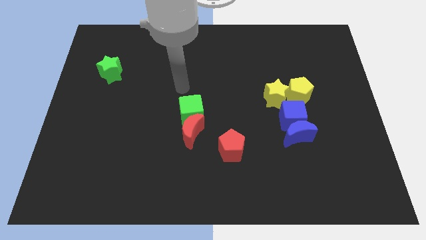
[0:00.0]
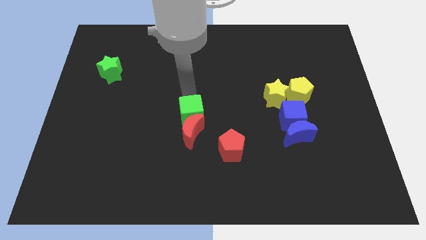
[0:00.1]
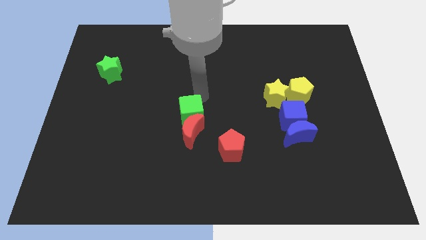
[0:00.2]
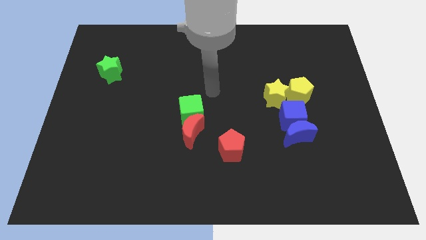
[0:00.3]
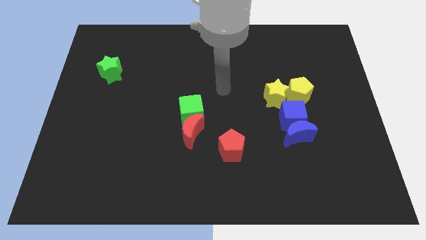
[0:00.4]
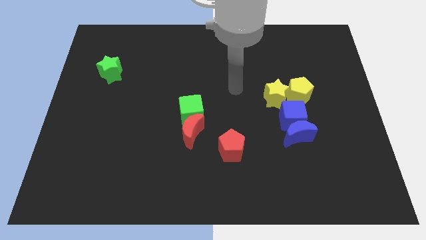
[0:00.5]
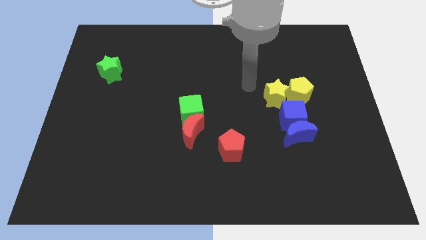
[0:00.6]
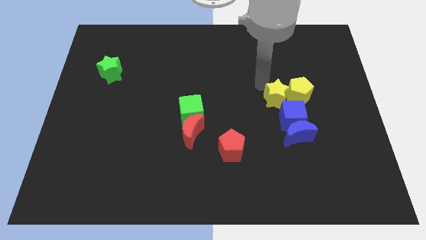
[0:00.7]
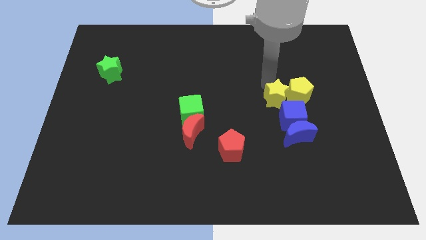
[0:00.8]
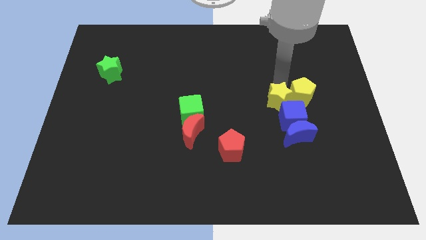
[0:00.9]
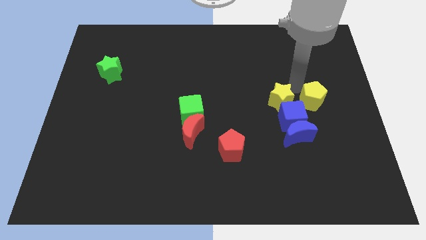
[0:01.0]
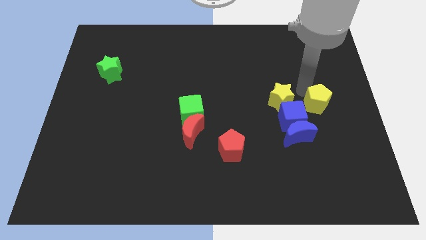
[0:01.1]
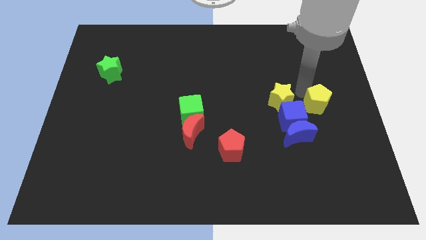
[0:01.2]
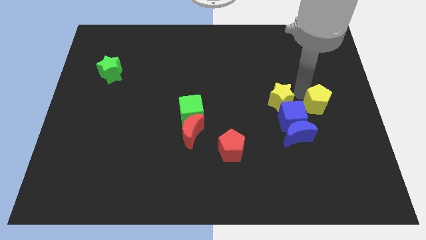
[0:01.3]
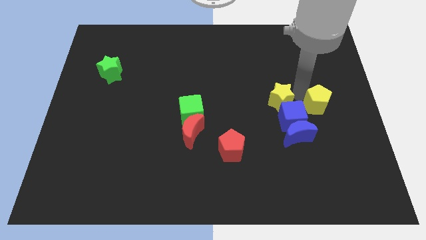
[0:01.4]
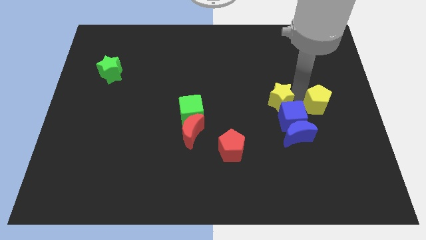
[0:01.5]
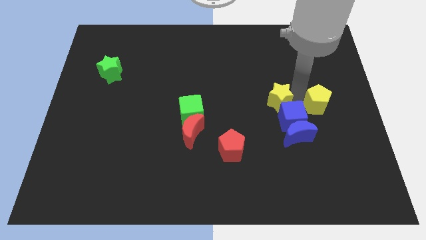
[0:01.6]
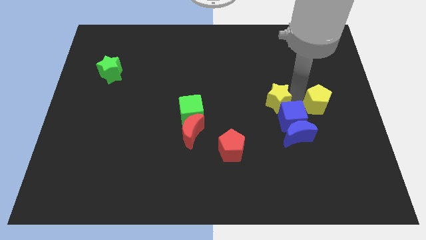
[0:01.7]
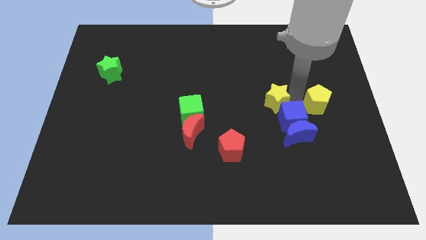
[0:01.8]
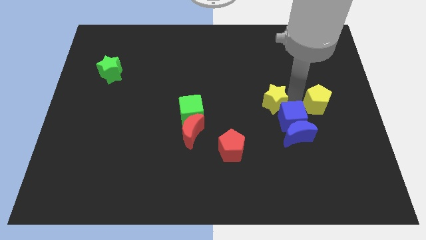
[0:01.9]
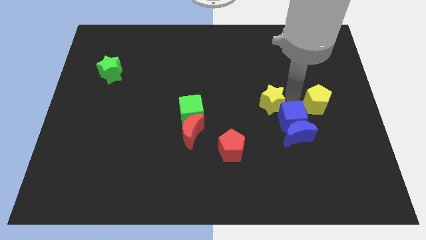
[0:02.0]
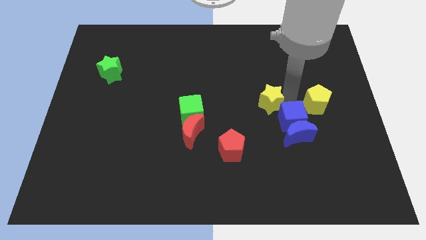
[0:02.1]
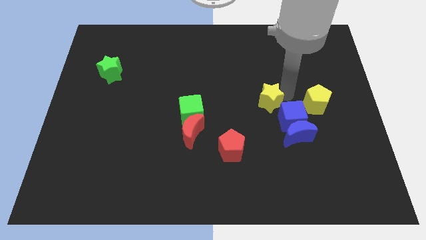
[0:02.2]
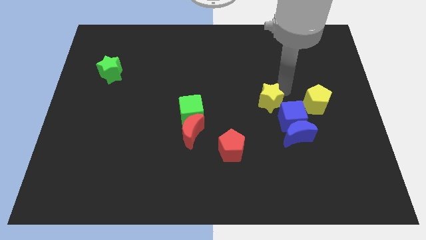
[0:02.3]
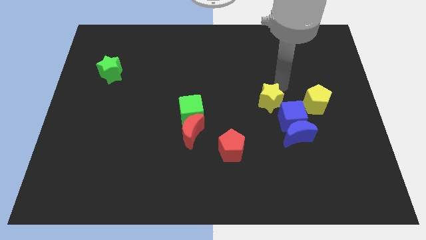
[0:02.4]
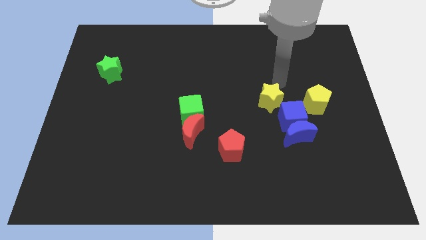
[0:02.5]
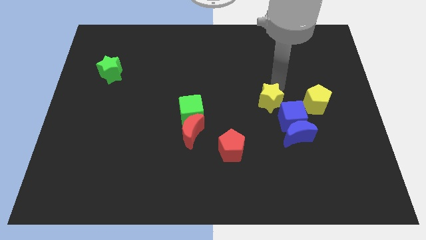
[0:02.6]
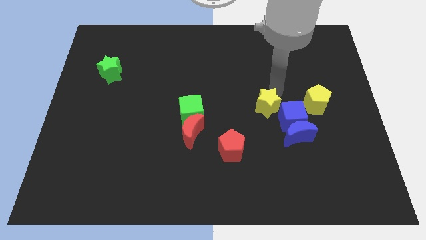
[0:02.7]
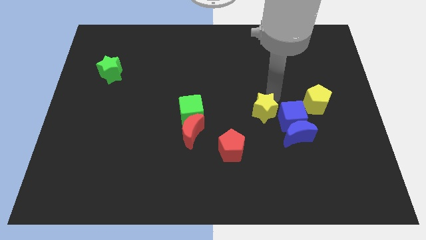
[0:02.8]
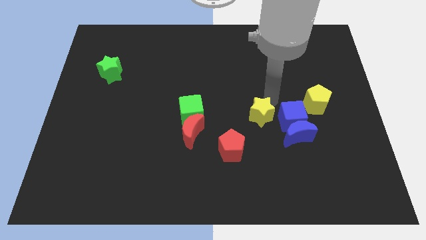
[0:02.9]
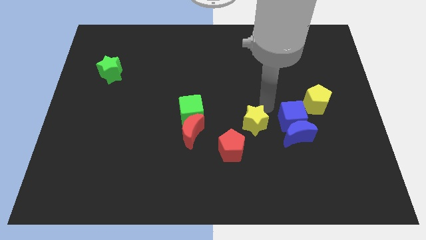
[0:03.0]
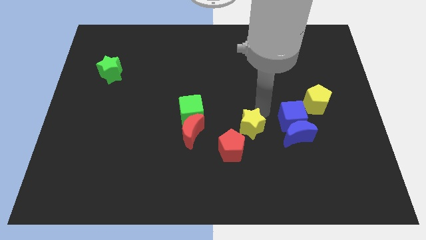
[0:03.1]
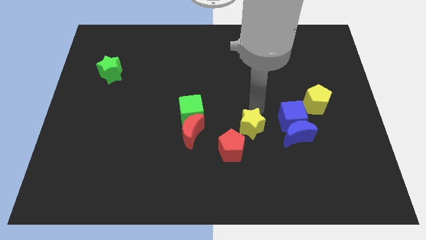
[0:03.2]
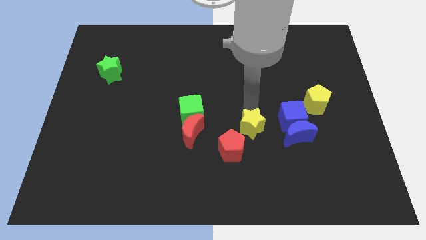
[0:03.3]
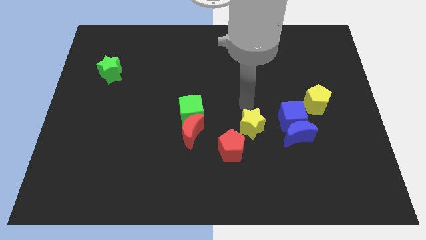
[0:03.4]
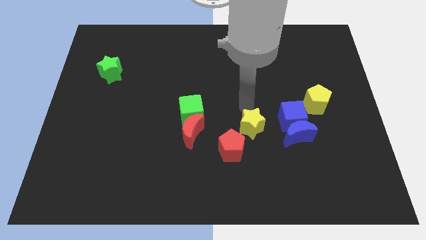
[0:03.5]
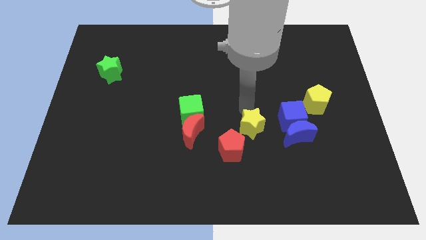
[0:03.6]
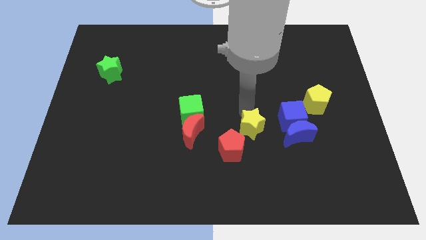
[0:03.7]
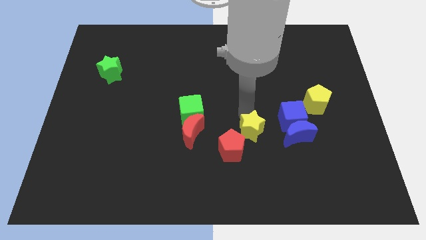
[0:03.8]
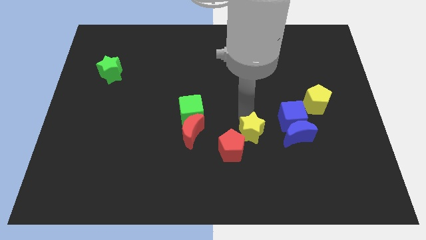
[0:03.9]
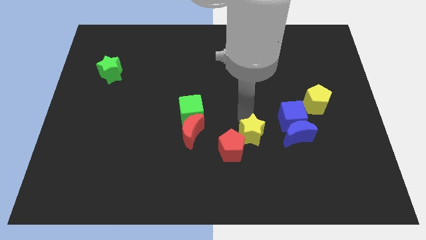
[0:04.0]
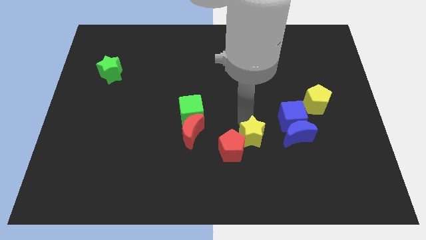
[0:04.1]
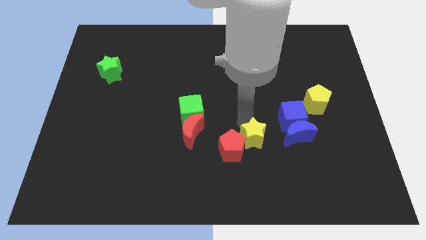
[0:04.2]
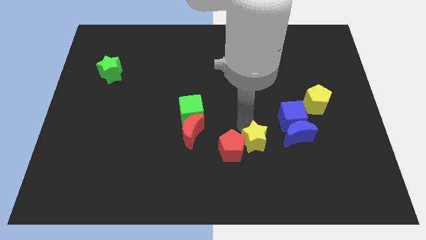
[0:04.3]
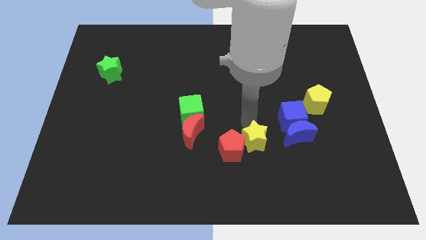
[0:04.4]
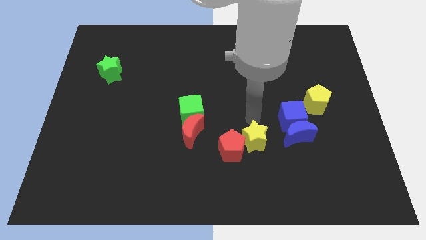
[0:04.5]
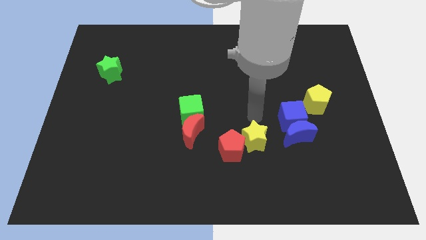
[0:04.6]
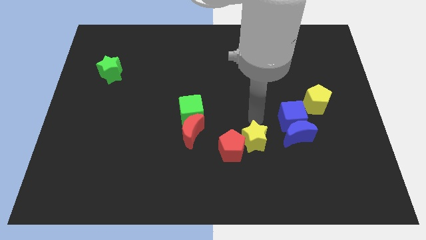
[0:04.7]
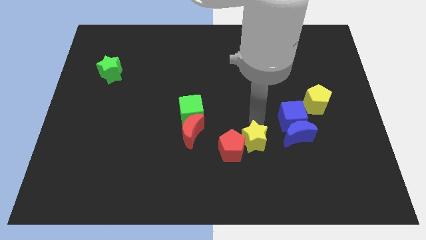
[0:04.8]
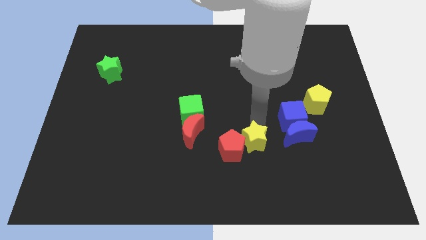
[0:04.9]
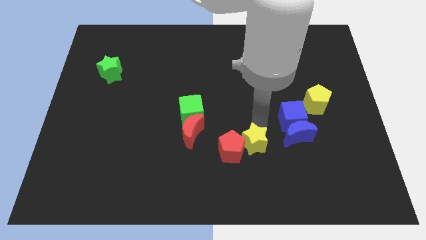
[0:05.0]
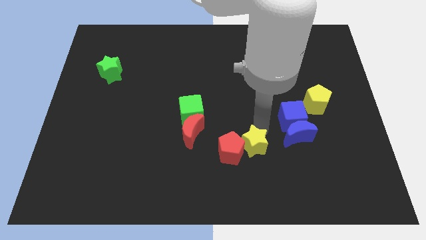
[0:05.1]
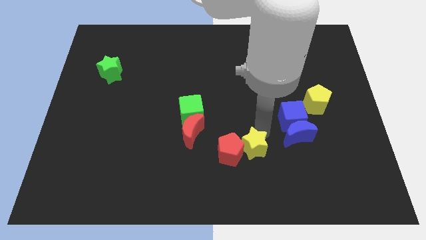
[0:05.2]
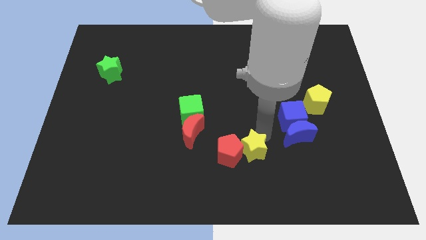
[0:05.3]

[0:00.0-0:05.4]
put the yellow star to the bottom right side of the red pentagon

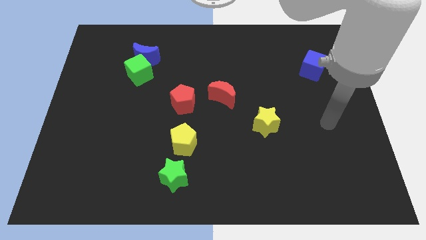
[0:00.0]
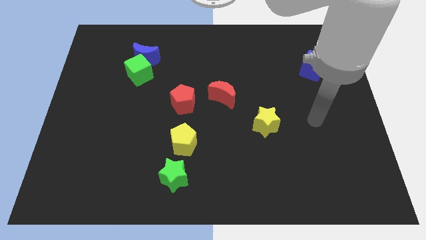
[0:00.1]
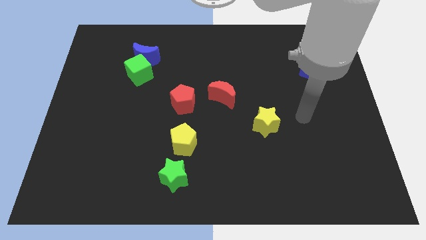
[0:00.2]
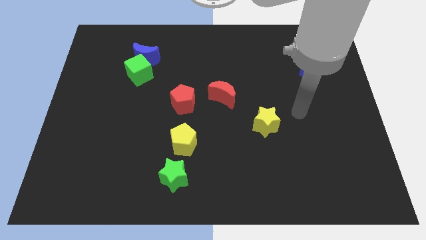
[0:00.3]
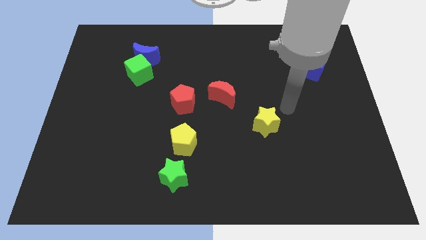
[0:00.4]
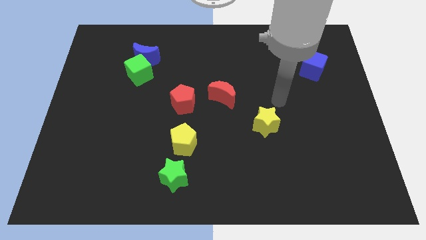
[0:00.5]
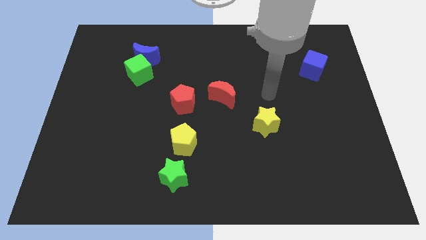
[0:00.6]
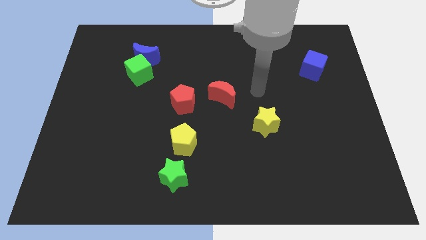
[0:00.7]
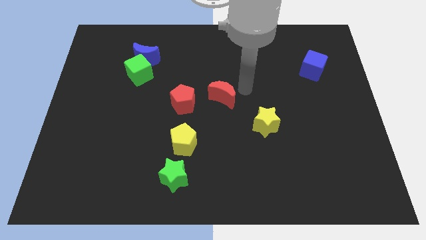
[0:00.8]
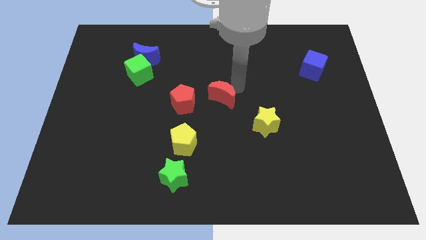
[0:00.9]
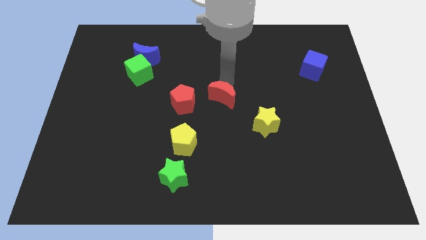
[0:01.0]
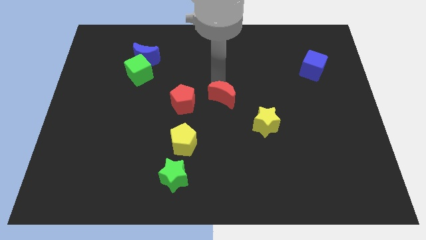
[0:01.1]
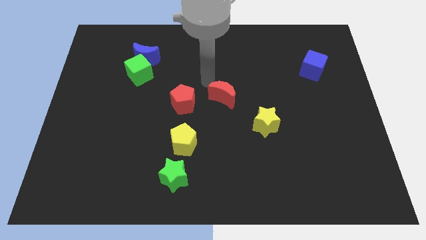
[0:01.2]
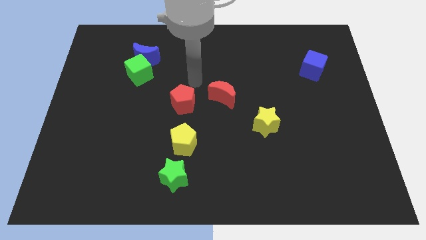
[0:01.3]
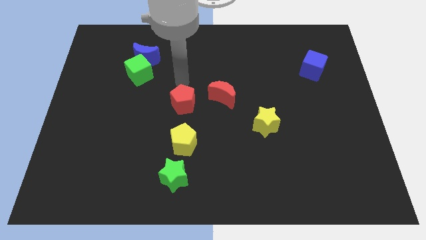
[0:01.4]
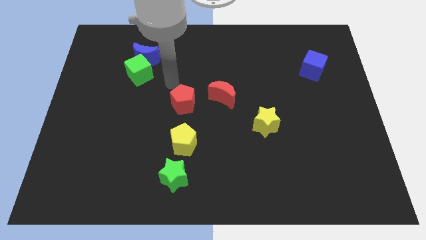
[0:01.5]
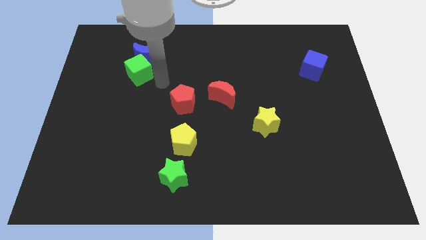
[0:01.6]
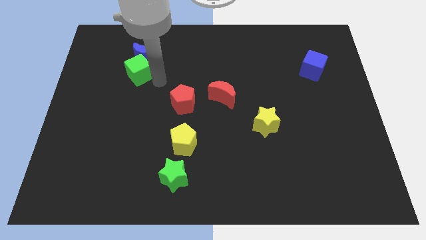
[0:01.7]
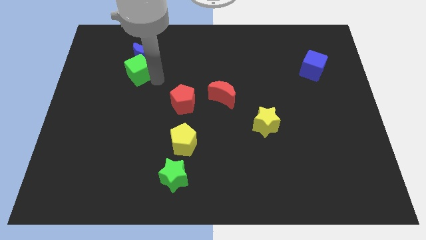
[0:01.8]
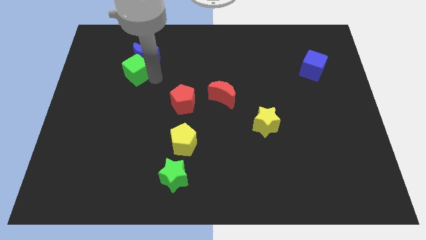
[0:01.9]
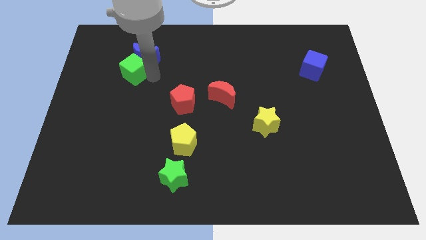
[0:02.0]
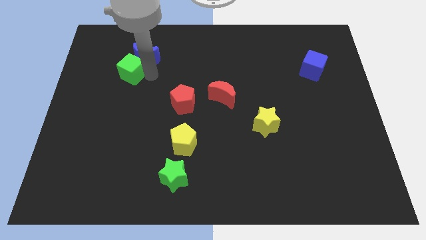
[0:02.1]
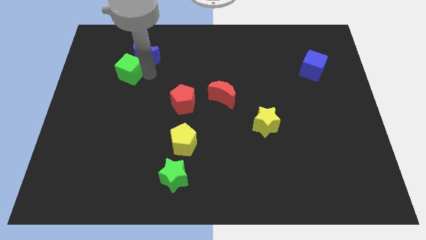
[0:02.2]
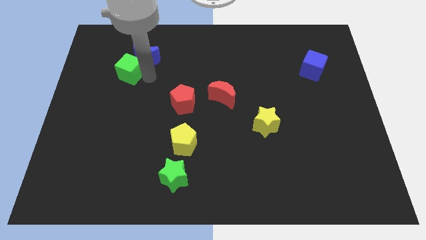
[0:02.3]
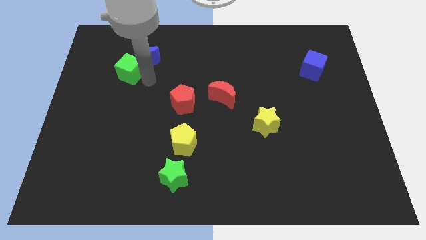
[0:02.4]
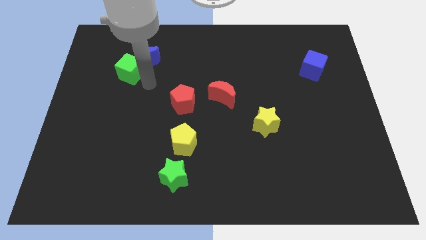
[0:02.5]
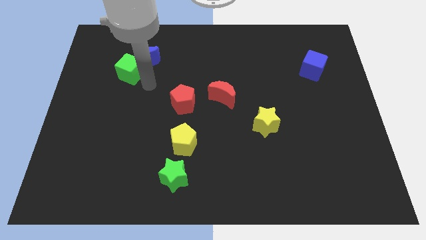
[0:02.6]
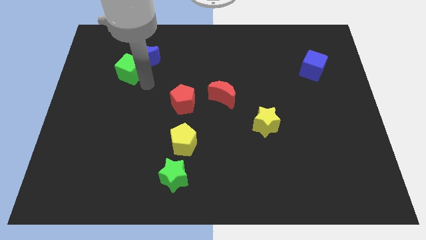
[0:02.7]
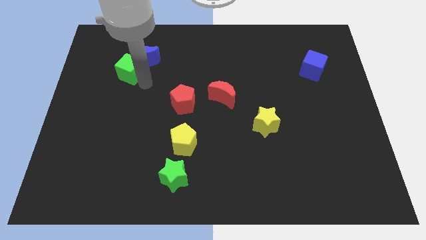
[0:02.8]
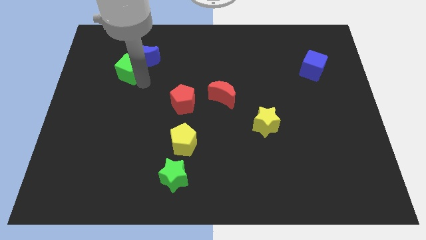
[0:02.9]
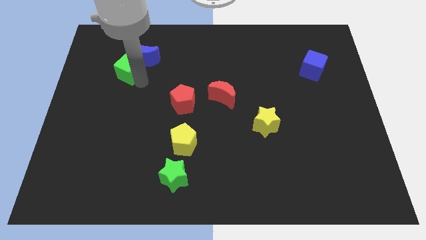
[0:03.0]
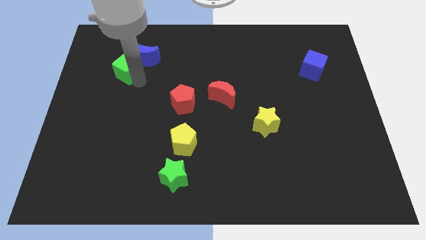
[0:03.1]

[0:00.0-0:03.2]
slide the green cube just left of the blue moon
